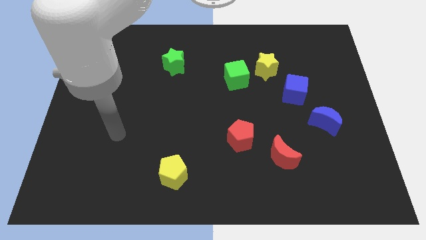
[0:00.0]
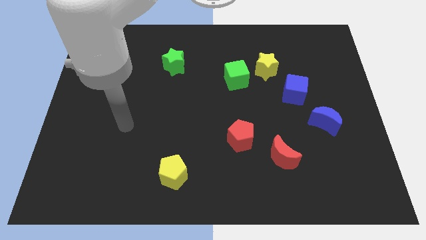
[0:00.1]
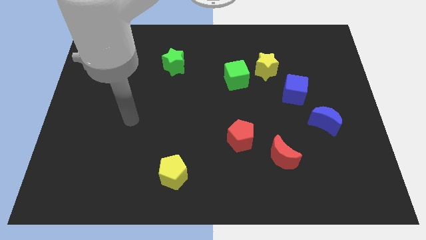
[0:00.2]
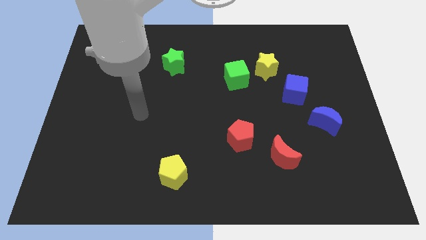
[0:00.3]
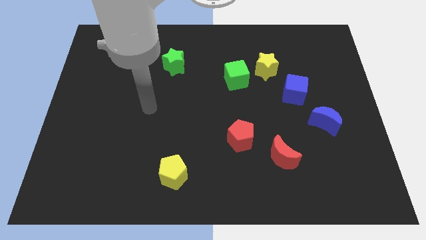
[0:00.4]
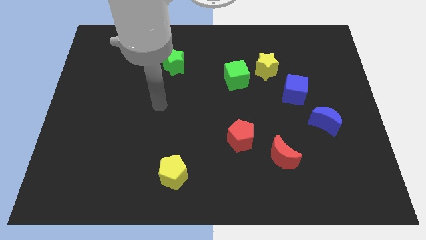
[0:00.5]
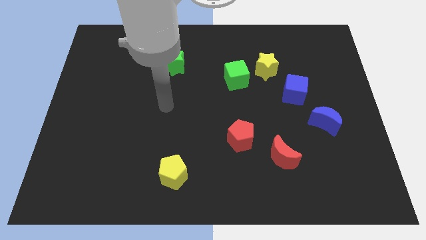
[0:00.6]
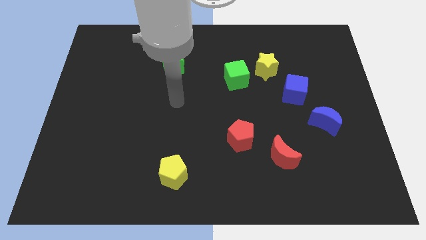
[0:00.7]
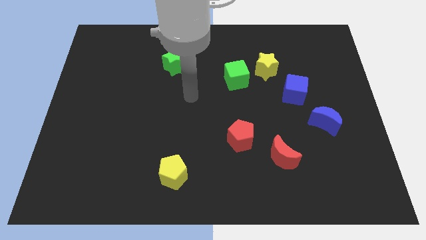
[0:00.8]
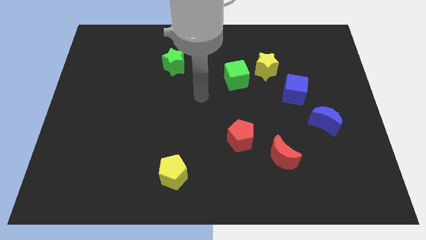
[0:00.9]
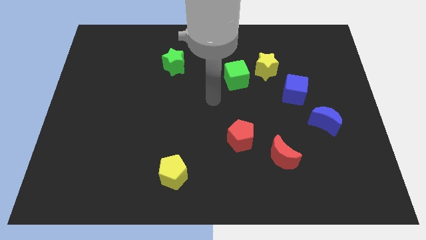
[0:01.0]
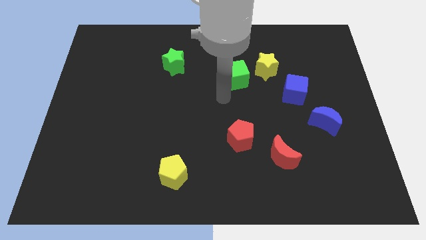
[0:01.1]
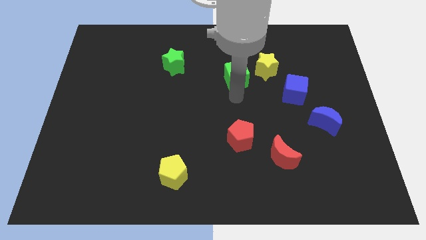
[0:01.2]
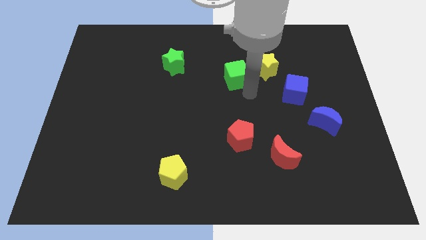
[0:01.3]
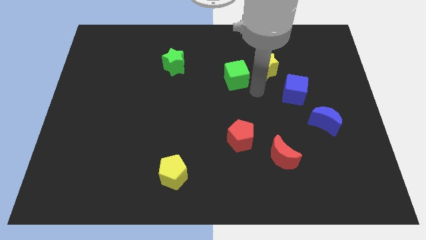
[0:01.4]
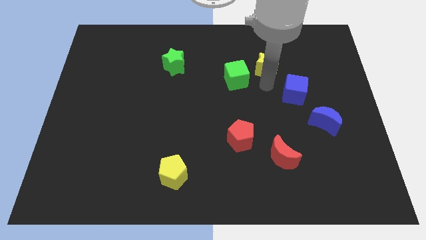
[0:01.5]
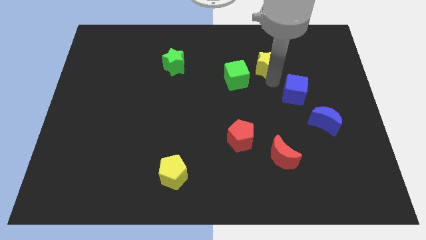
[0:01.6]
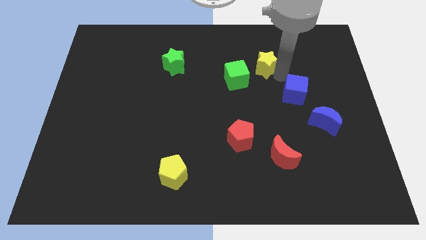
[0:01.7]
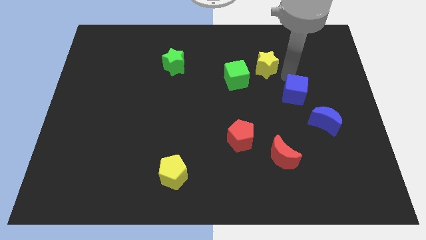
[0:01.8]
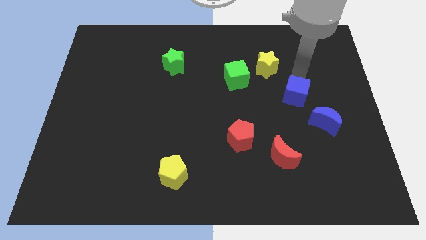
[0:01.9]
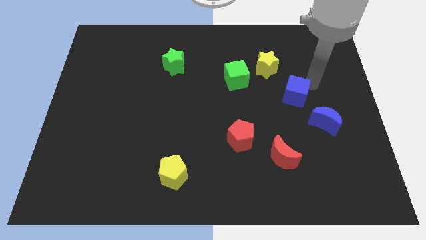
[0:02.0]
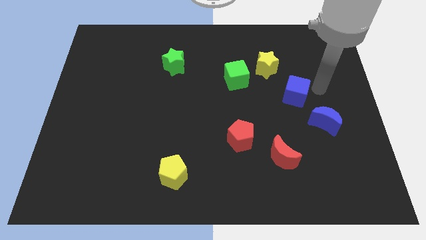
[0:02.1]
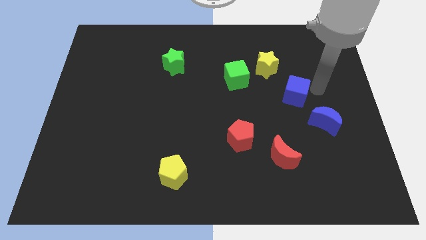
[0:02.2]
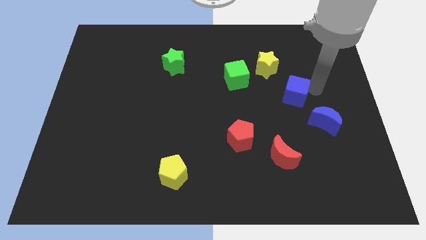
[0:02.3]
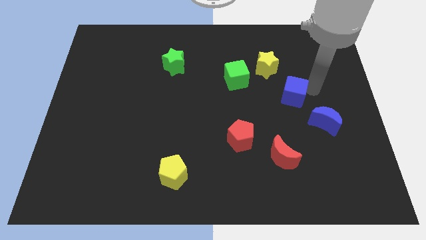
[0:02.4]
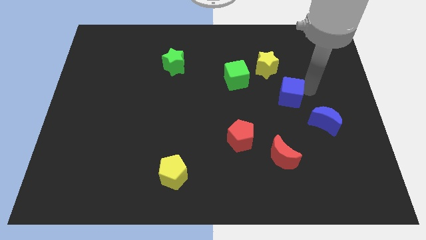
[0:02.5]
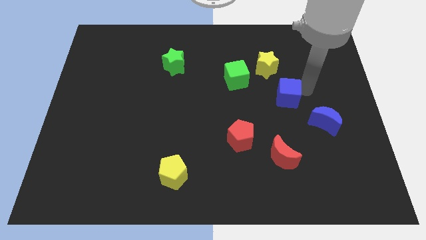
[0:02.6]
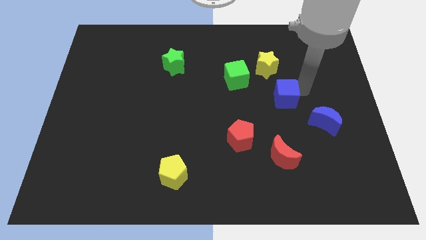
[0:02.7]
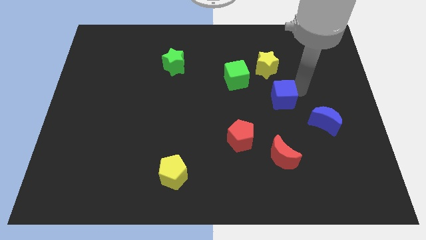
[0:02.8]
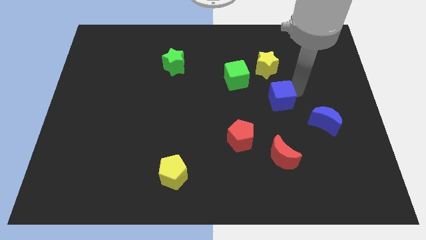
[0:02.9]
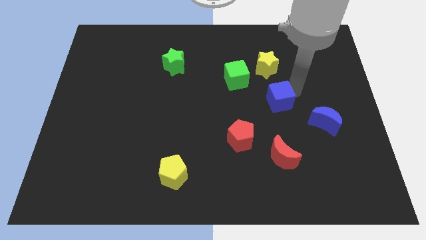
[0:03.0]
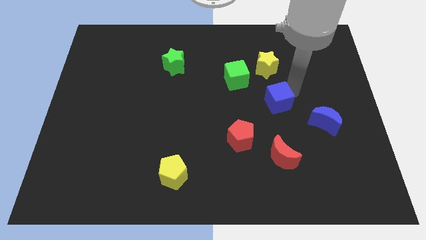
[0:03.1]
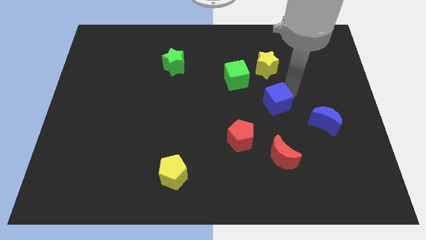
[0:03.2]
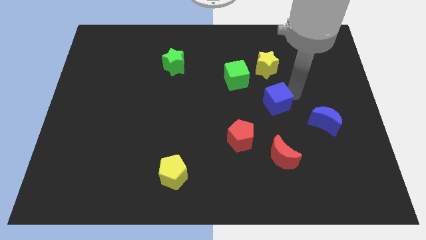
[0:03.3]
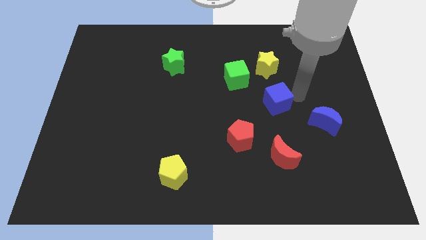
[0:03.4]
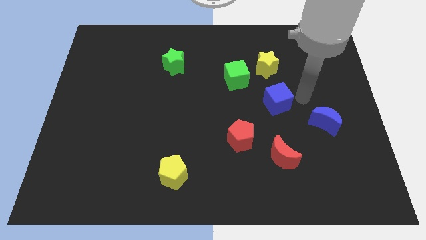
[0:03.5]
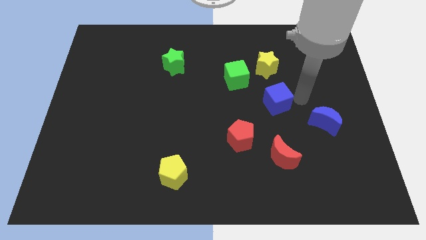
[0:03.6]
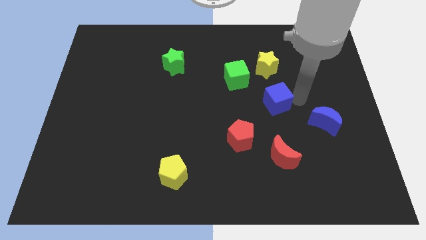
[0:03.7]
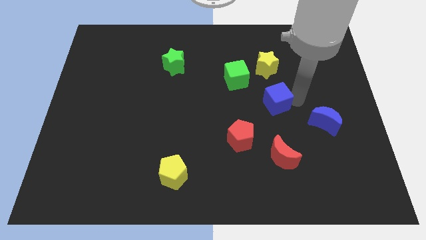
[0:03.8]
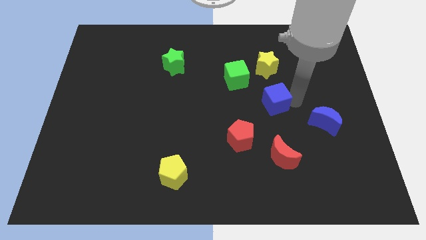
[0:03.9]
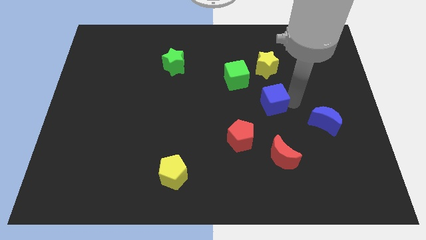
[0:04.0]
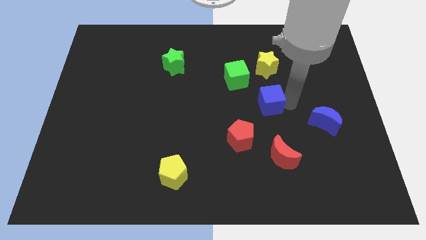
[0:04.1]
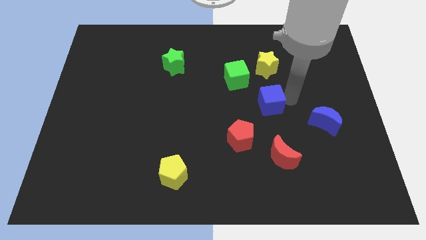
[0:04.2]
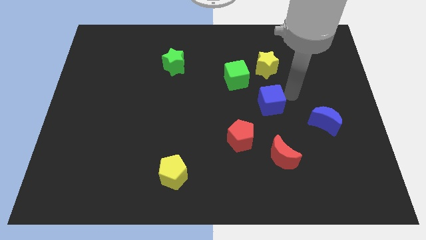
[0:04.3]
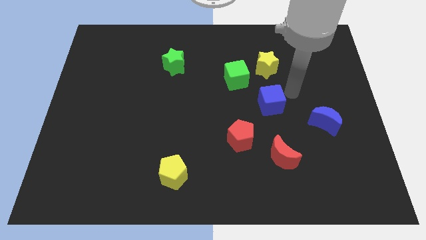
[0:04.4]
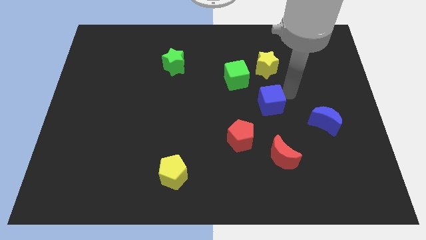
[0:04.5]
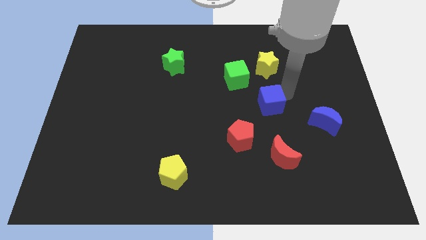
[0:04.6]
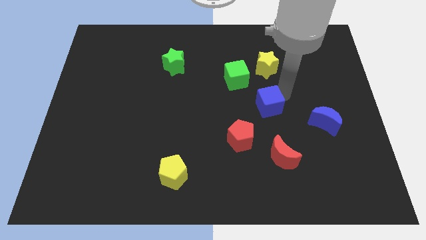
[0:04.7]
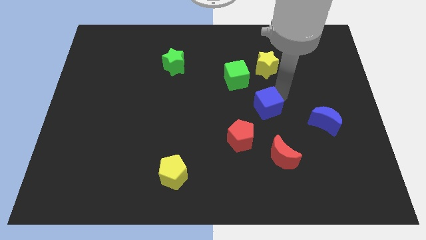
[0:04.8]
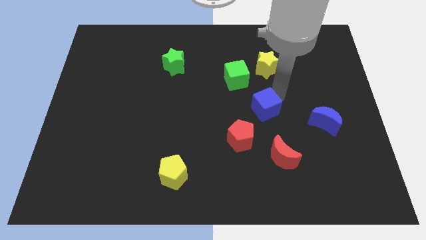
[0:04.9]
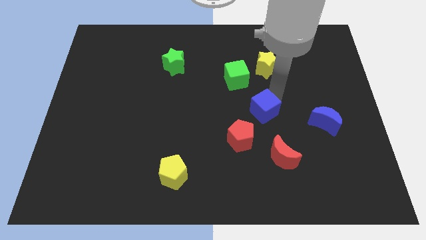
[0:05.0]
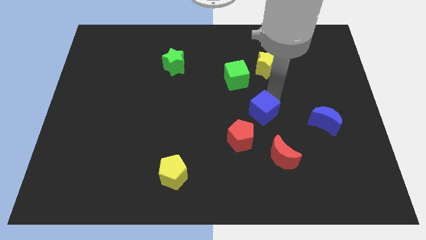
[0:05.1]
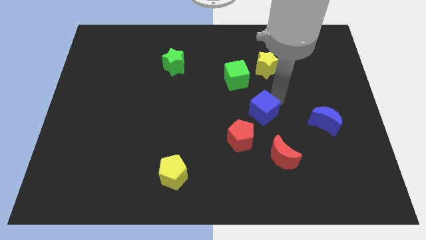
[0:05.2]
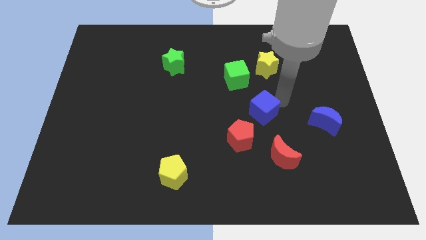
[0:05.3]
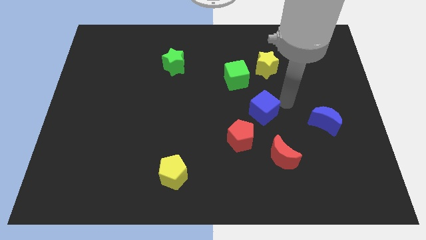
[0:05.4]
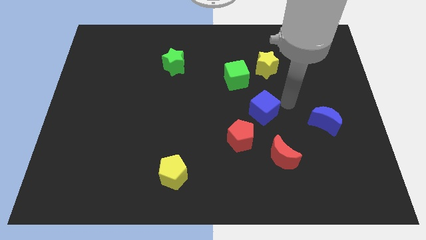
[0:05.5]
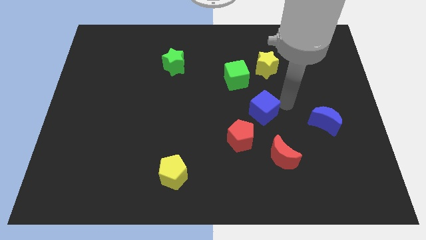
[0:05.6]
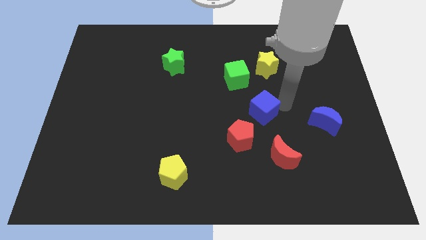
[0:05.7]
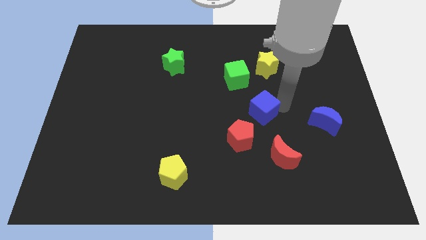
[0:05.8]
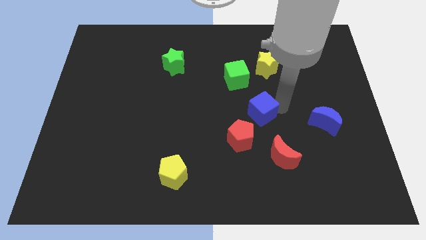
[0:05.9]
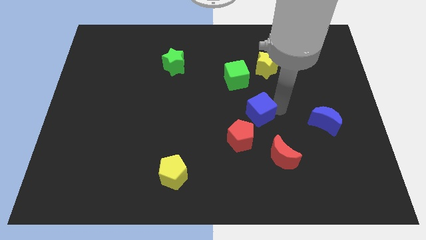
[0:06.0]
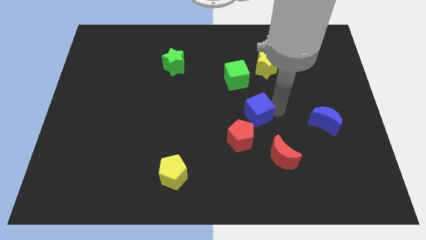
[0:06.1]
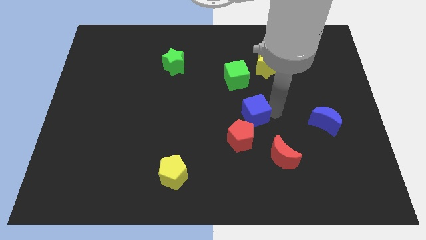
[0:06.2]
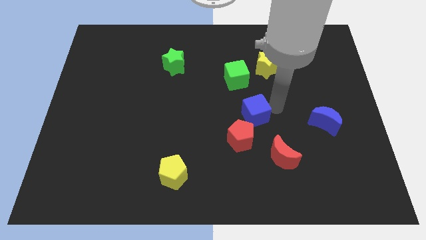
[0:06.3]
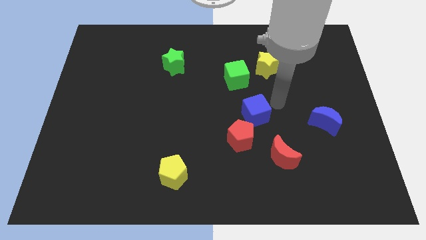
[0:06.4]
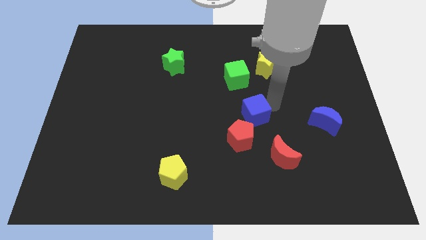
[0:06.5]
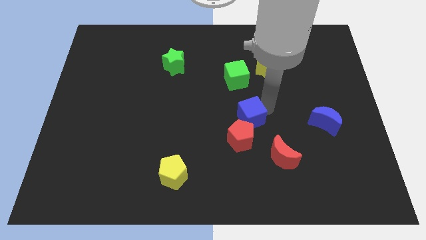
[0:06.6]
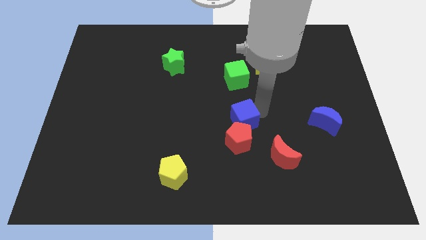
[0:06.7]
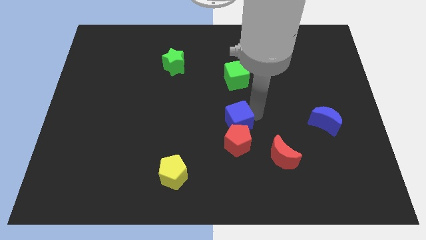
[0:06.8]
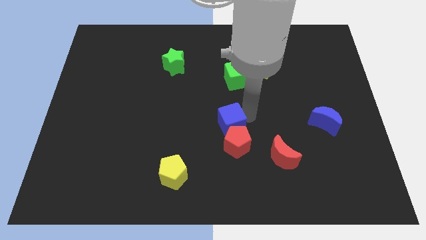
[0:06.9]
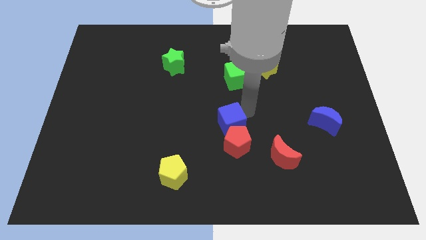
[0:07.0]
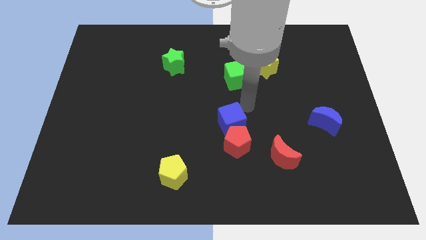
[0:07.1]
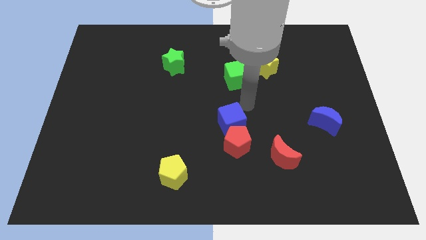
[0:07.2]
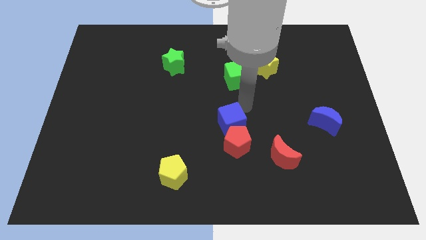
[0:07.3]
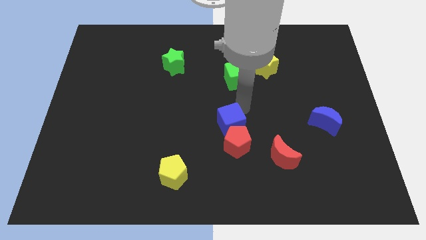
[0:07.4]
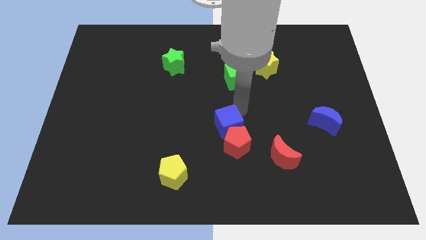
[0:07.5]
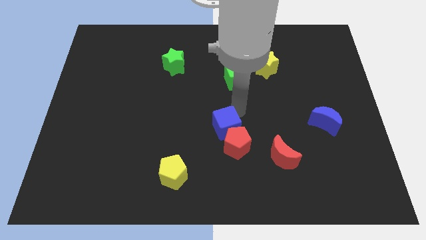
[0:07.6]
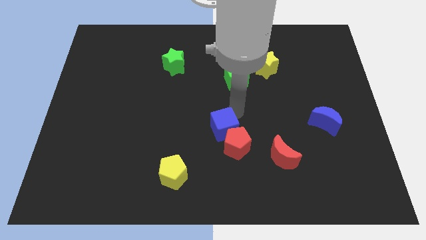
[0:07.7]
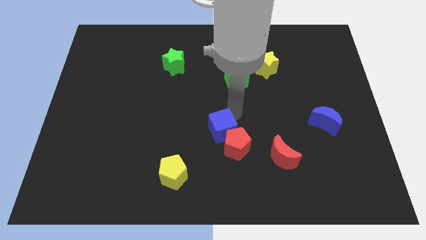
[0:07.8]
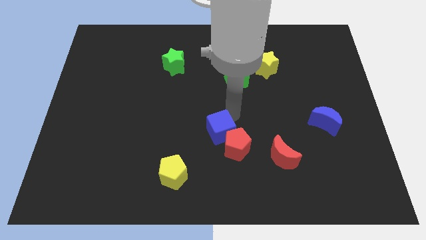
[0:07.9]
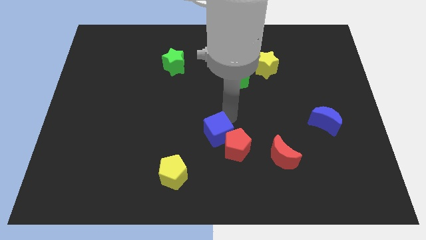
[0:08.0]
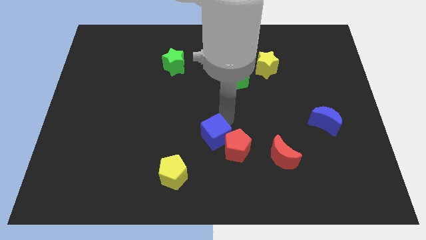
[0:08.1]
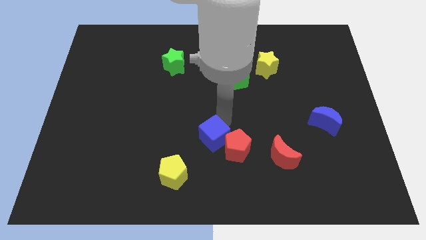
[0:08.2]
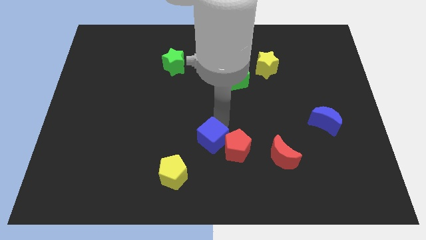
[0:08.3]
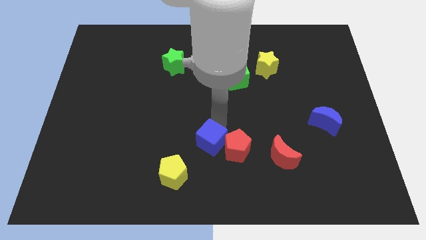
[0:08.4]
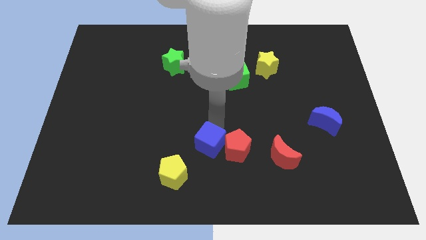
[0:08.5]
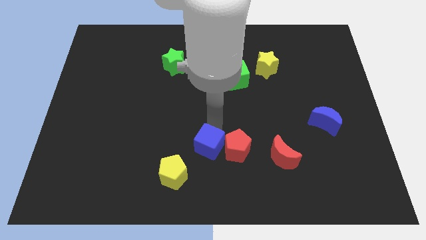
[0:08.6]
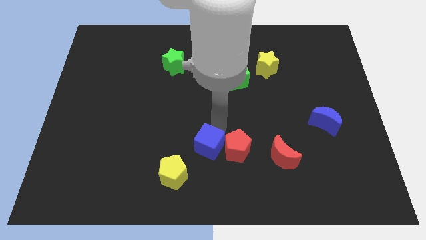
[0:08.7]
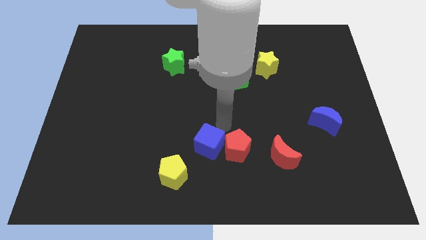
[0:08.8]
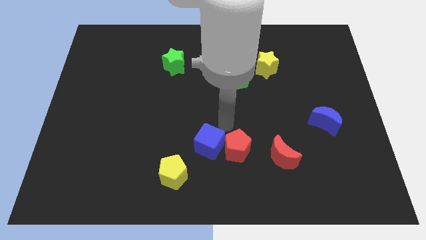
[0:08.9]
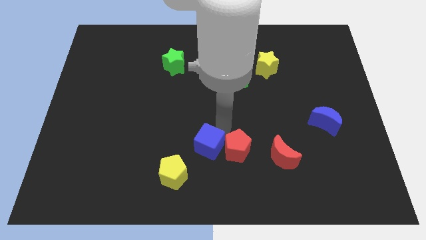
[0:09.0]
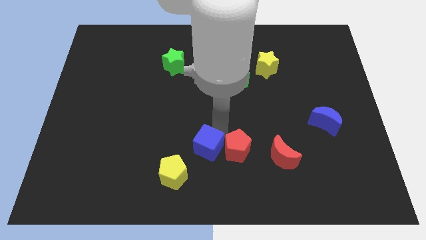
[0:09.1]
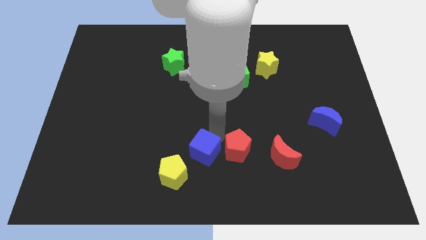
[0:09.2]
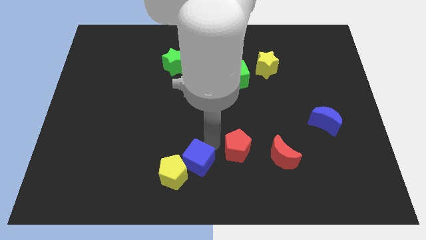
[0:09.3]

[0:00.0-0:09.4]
put the blue cube close to the yellow pentagon
